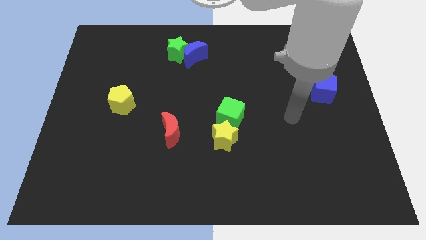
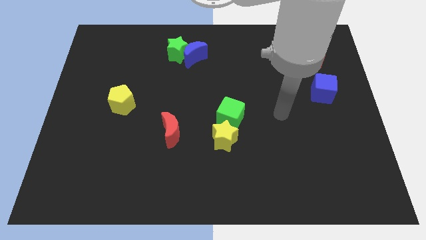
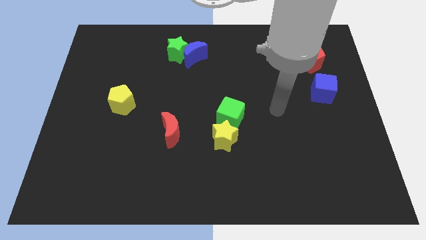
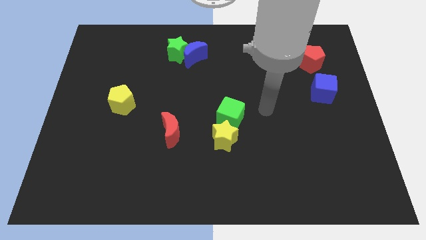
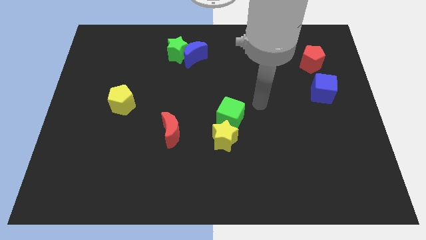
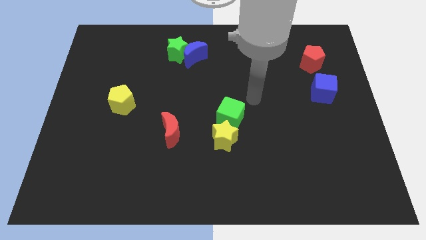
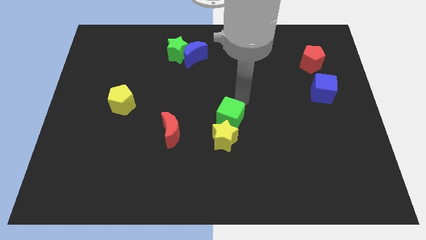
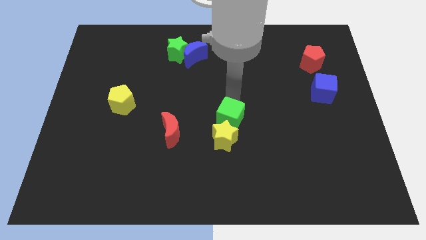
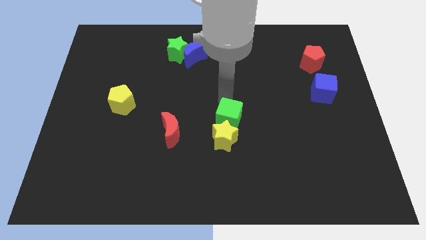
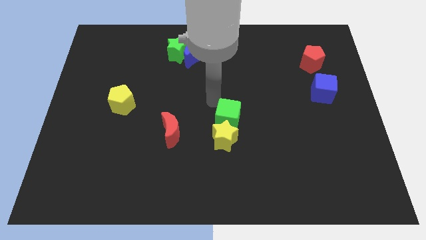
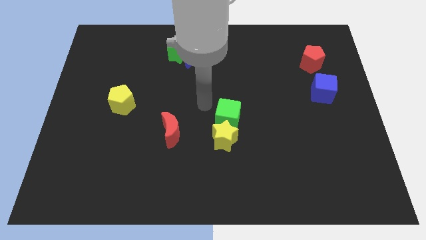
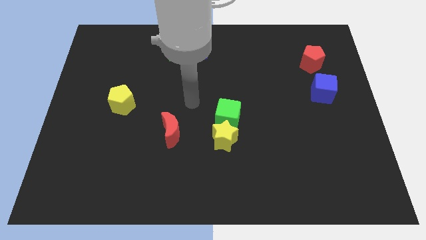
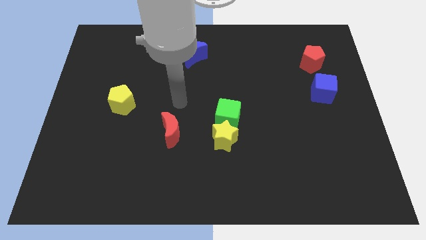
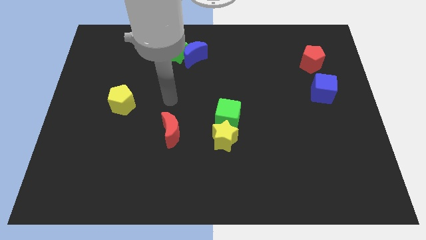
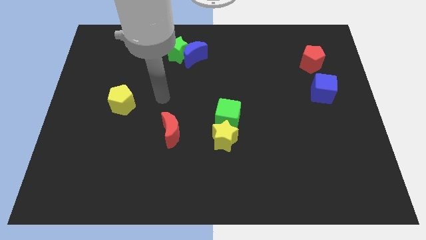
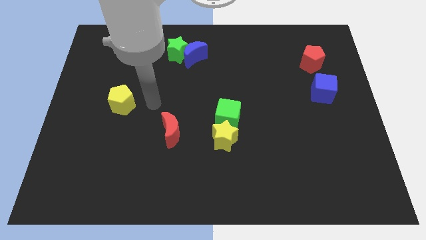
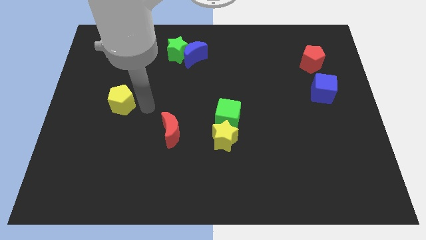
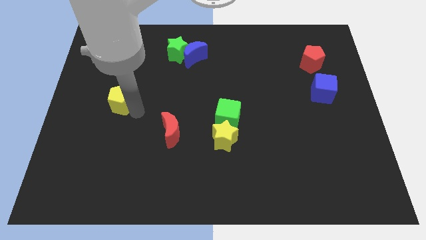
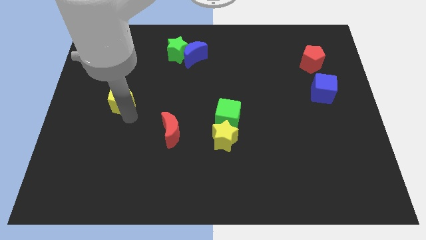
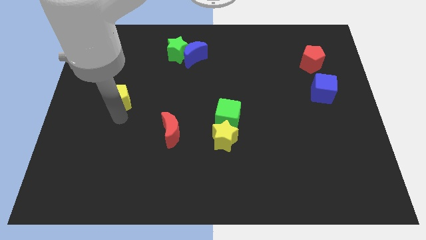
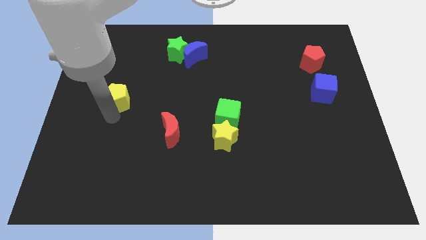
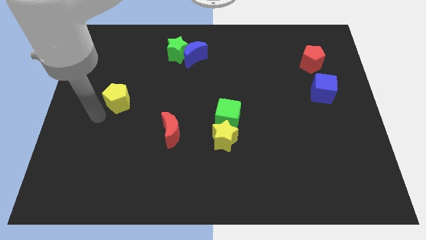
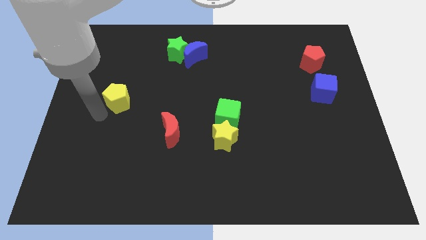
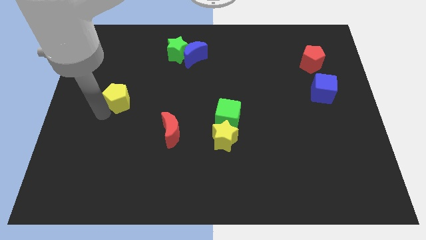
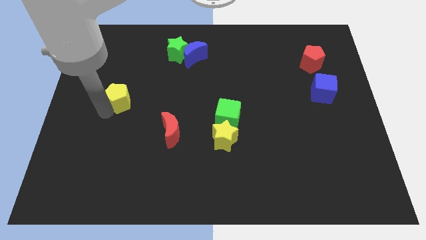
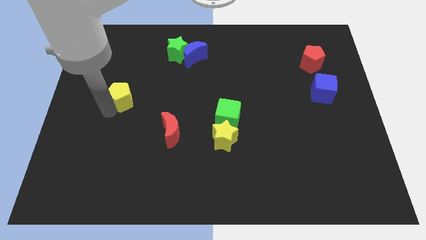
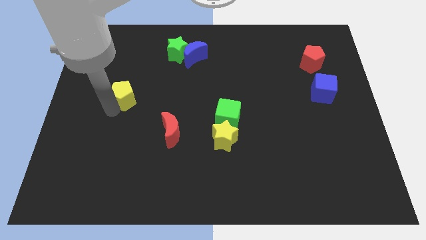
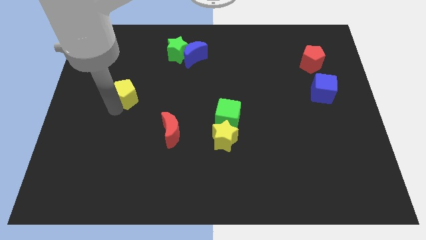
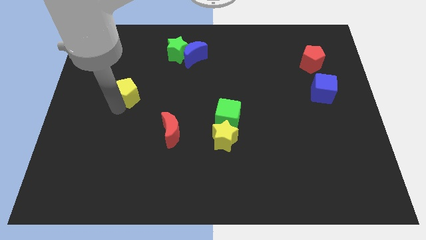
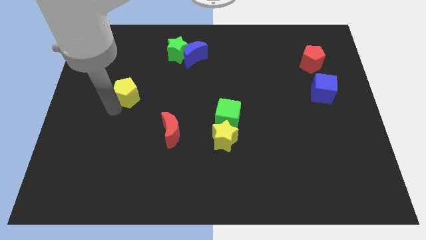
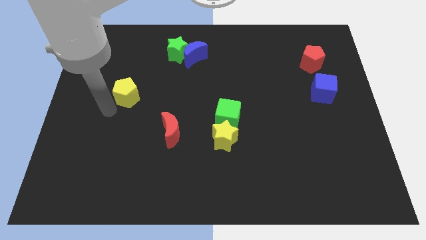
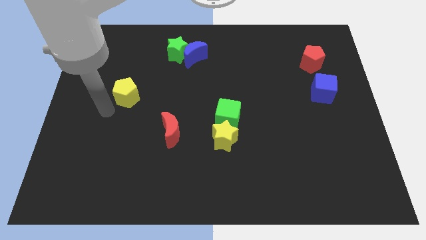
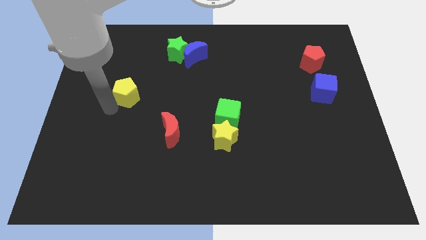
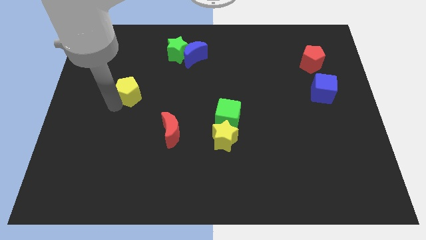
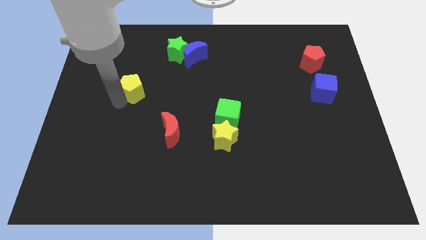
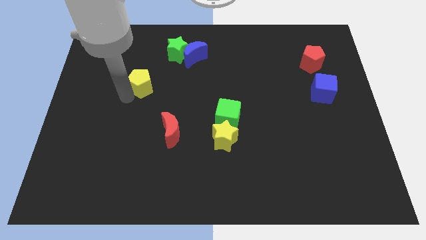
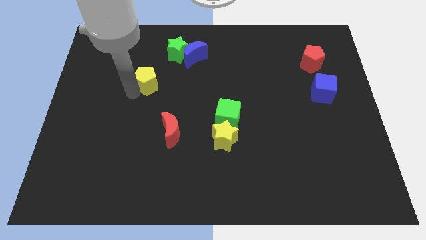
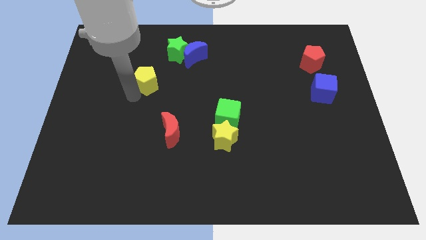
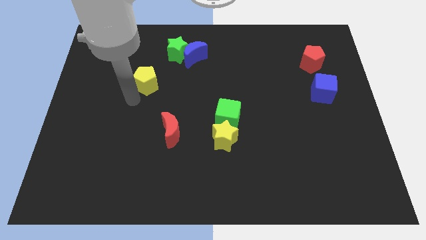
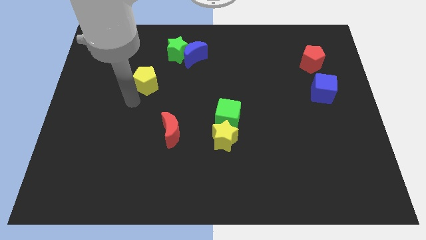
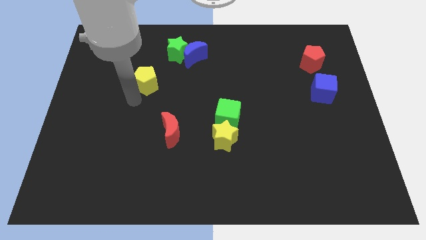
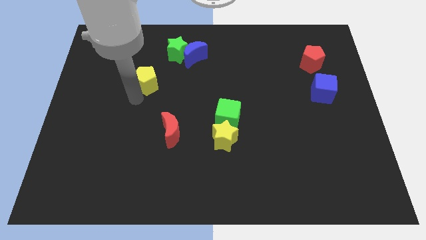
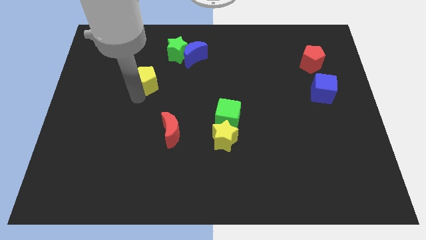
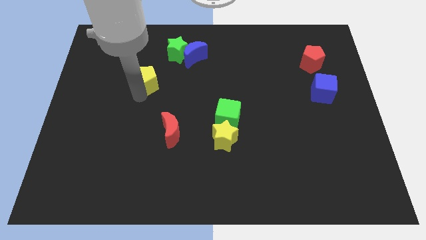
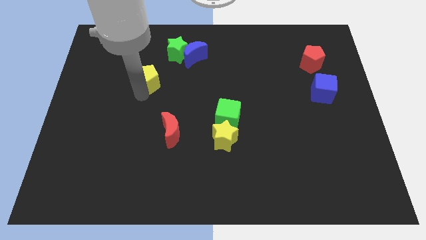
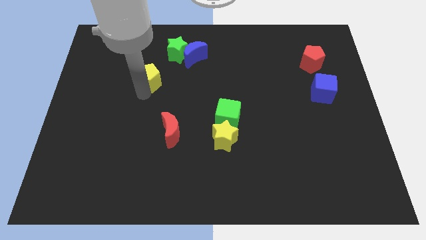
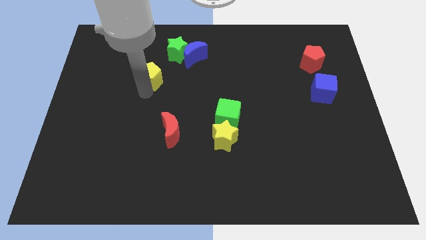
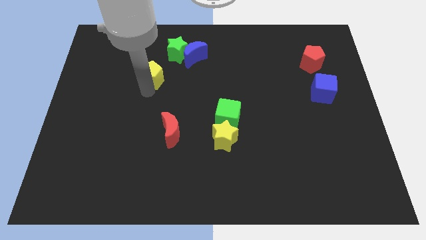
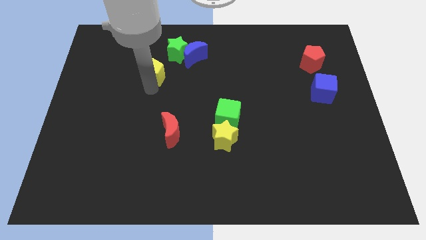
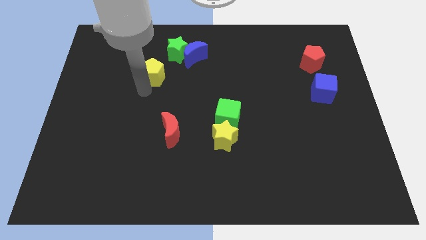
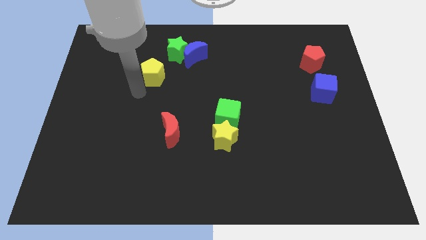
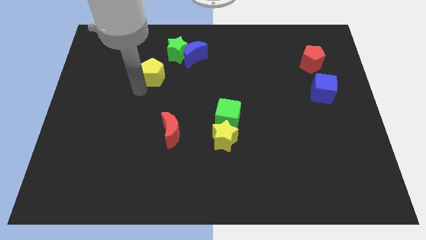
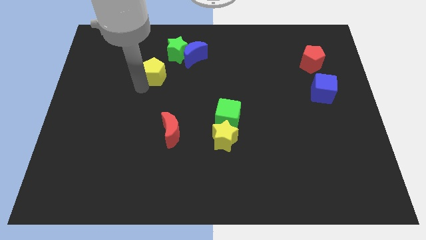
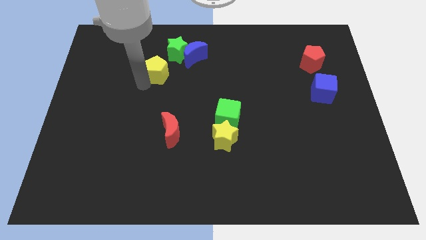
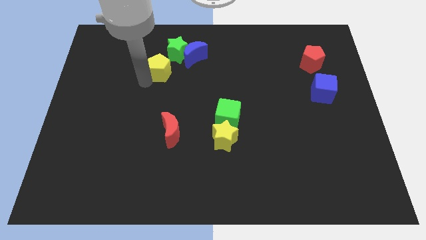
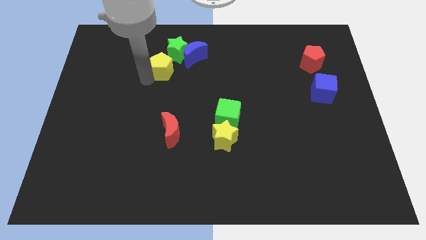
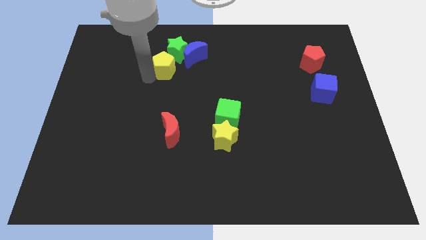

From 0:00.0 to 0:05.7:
put the yellow pentagon next to the green star

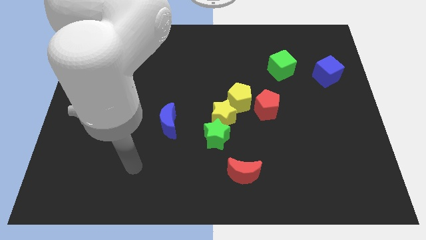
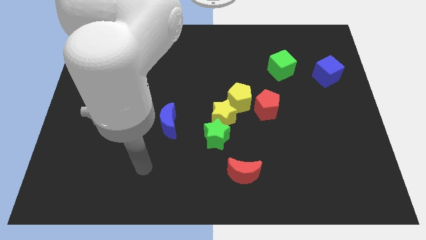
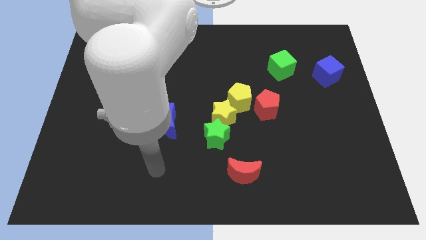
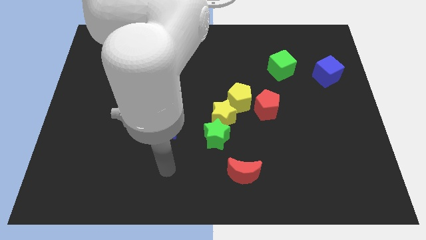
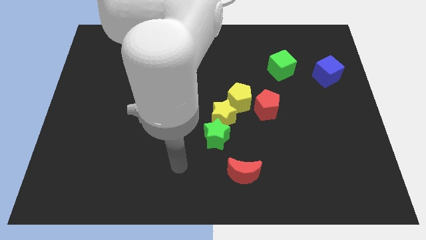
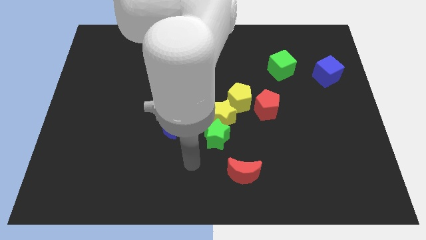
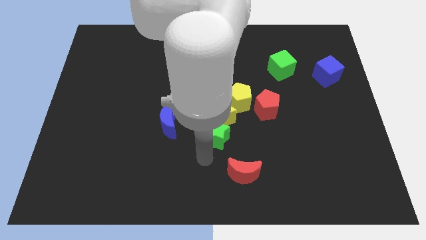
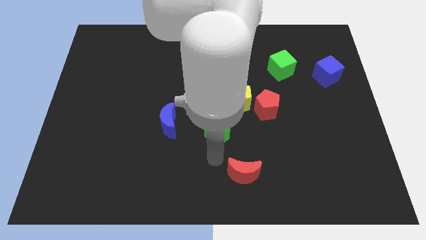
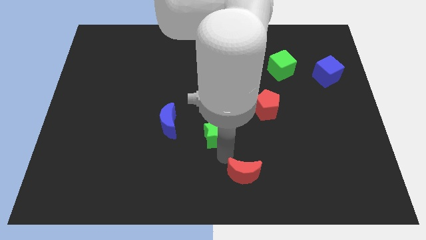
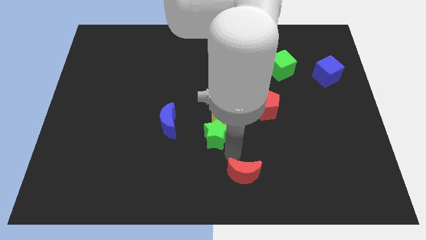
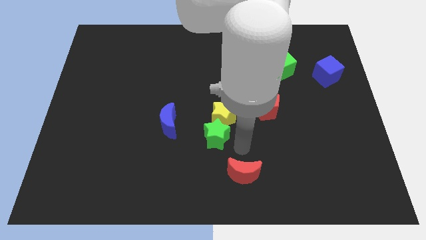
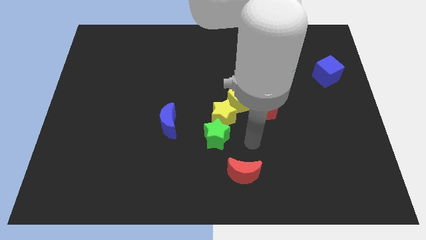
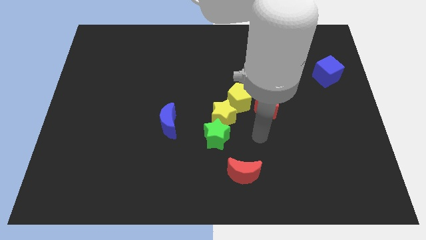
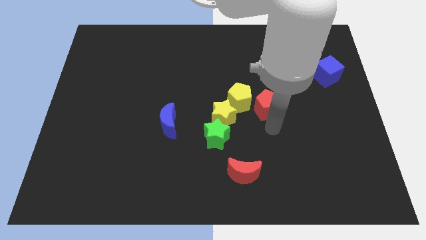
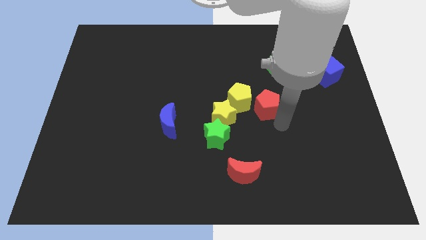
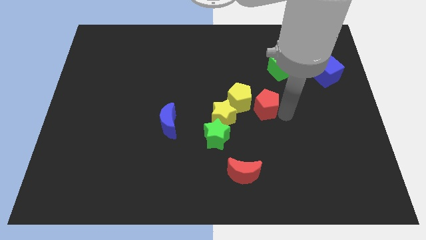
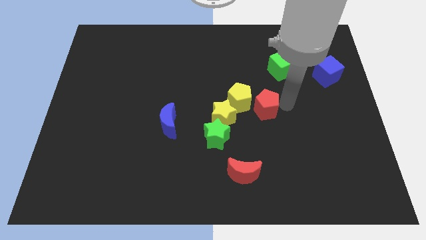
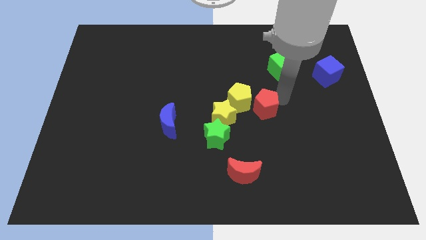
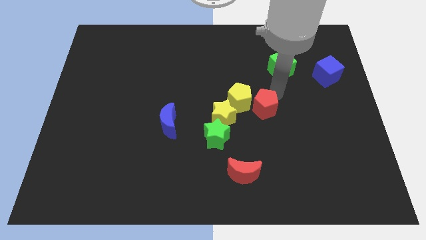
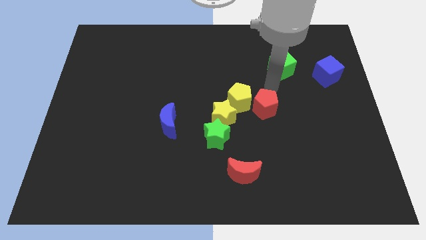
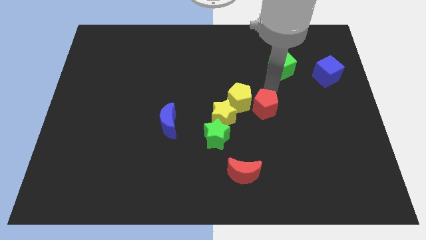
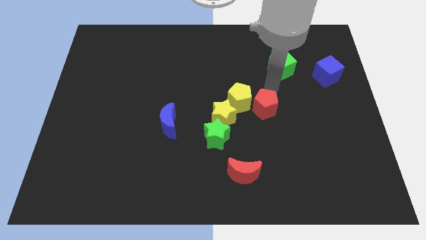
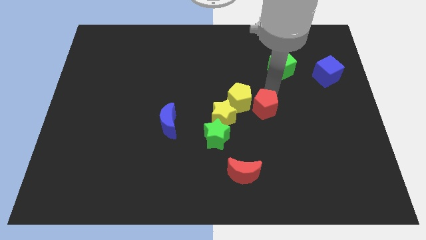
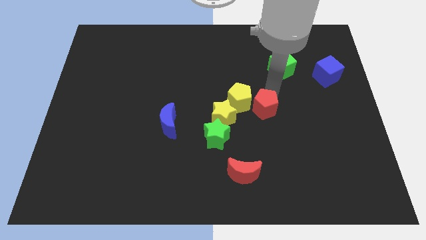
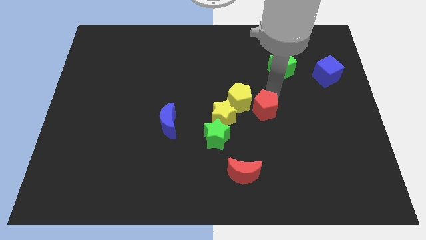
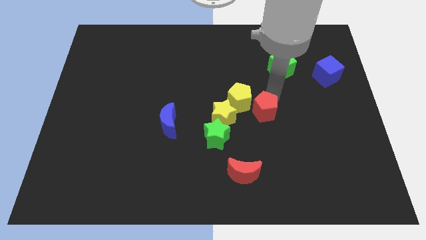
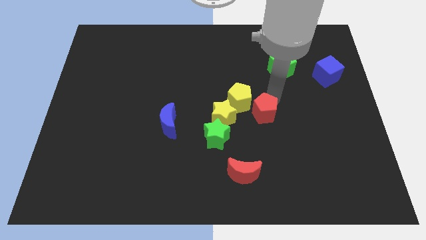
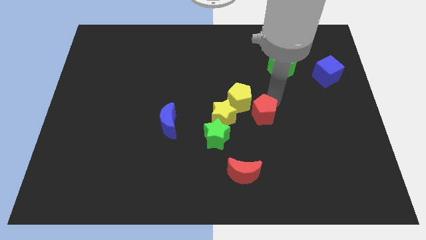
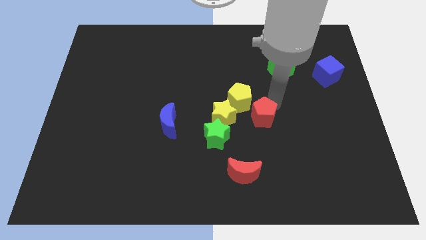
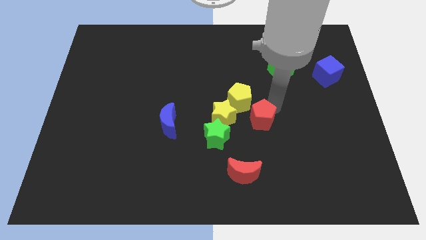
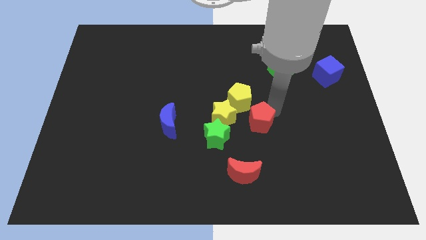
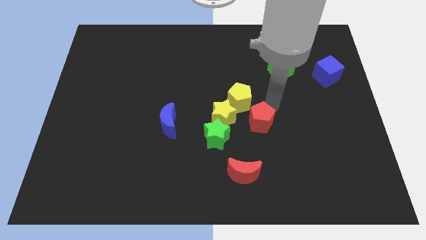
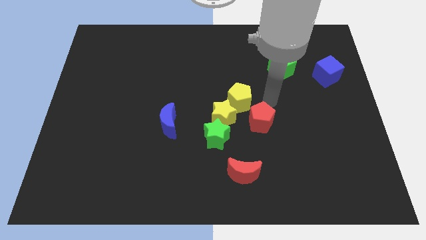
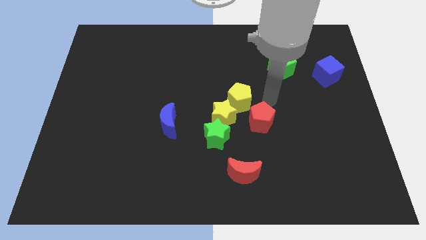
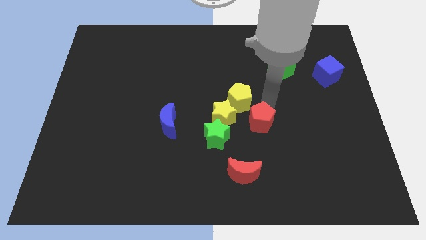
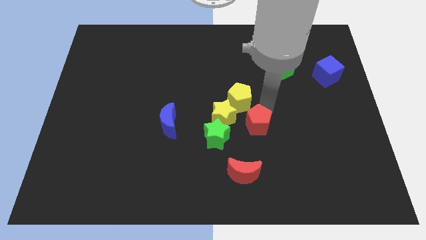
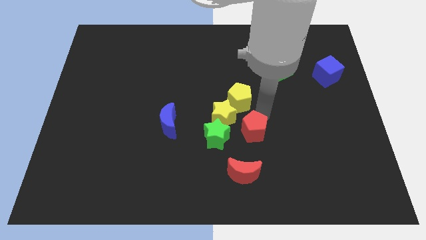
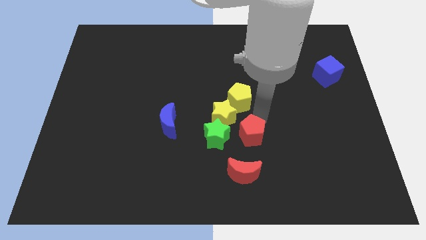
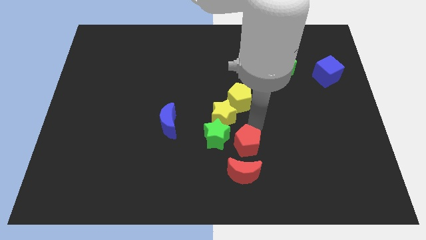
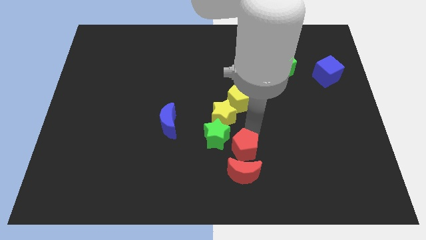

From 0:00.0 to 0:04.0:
slide the red pentagon to the red moon
